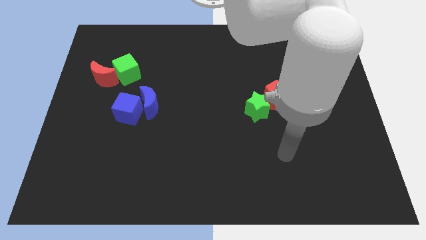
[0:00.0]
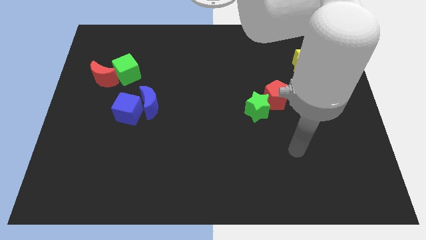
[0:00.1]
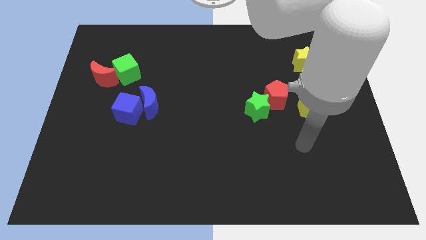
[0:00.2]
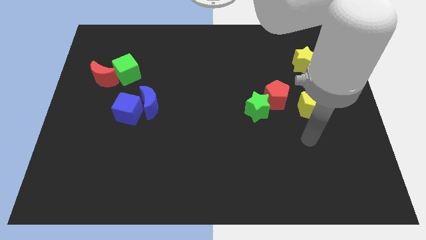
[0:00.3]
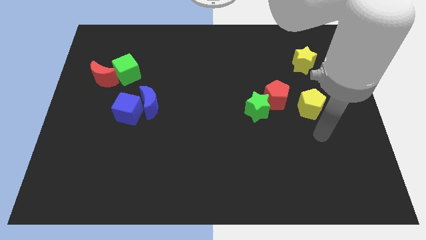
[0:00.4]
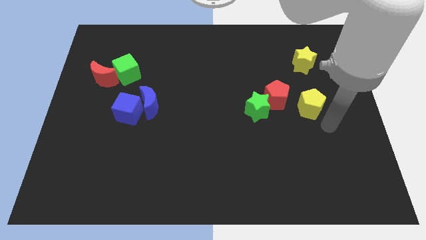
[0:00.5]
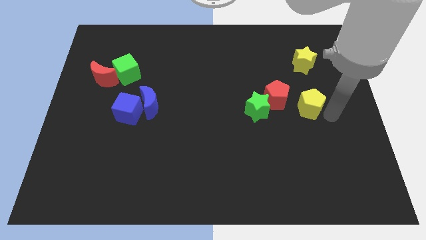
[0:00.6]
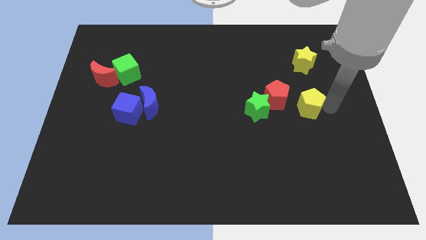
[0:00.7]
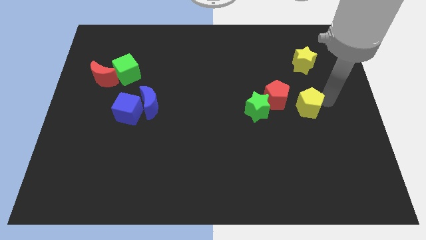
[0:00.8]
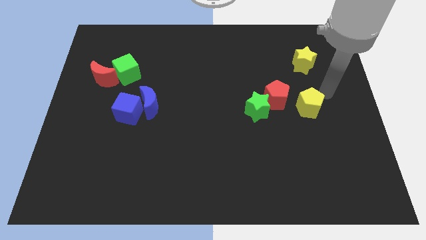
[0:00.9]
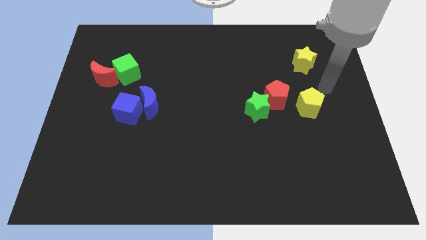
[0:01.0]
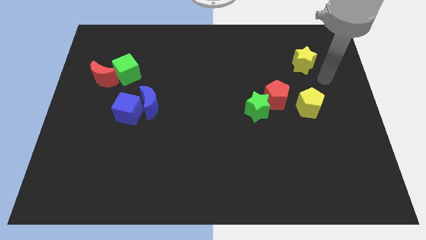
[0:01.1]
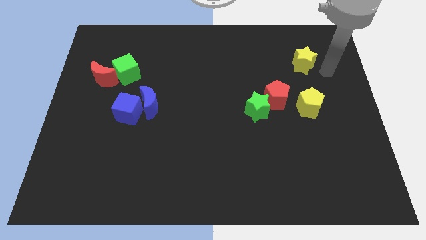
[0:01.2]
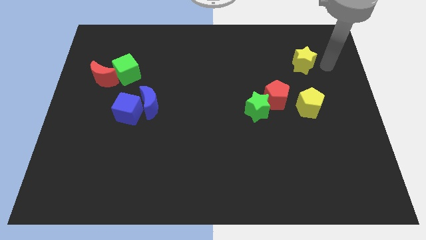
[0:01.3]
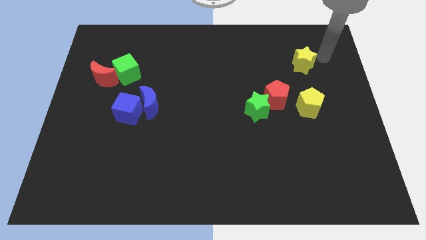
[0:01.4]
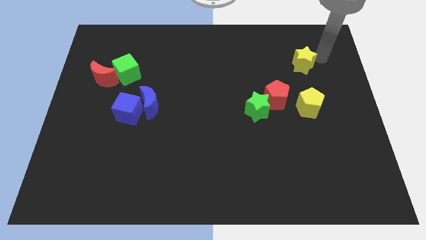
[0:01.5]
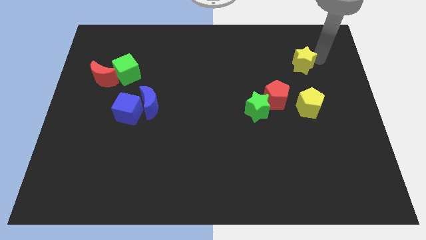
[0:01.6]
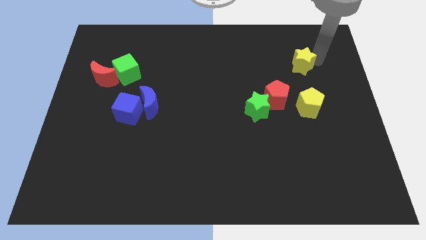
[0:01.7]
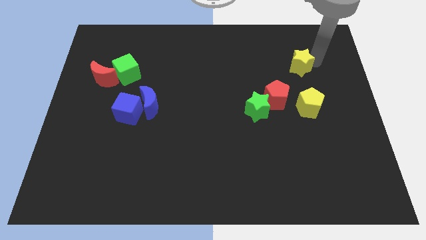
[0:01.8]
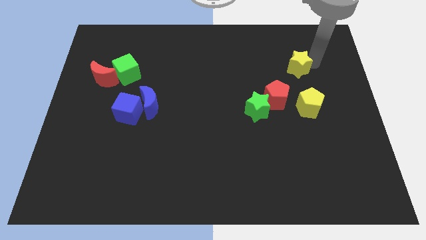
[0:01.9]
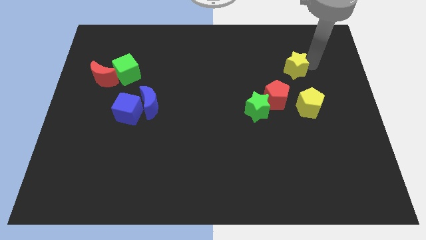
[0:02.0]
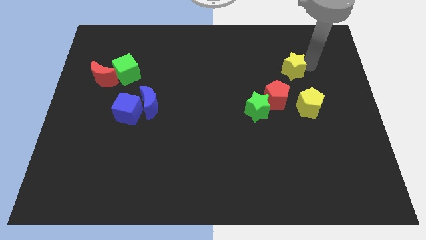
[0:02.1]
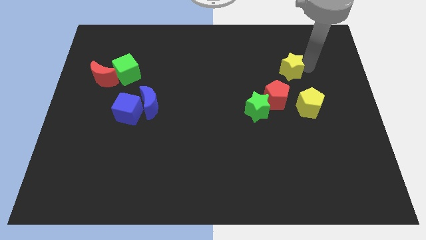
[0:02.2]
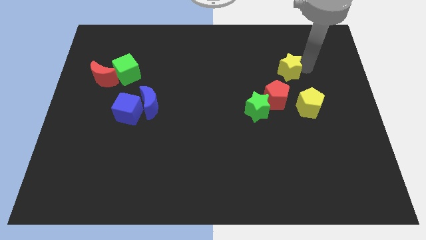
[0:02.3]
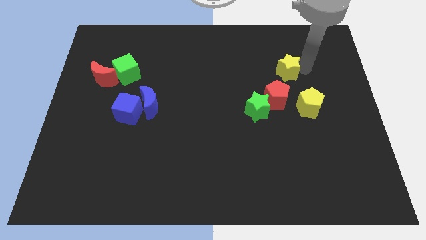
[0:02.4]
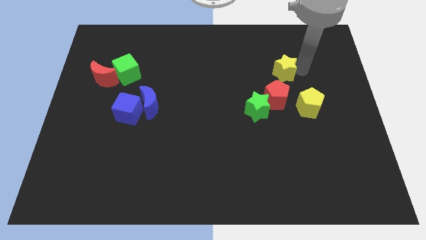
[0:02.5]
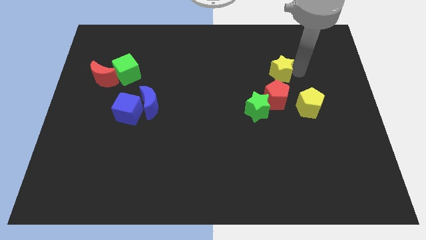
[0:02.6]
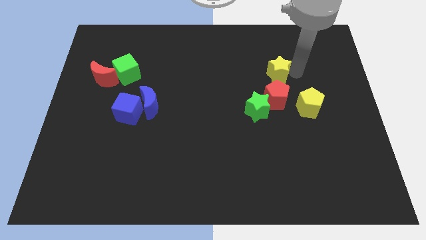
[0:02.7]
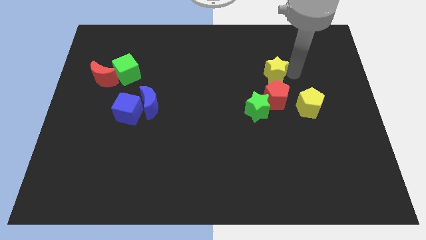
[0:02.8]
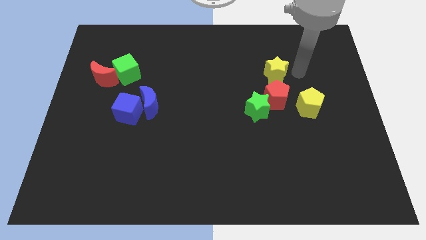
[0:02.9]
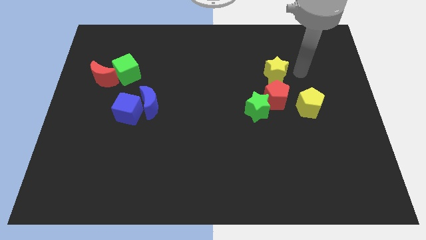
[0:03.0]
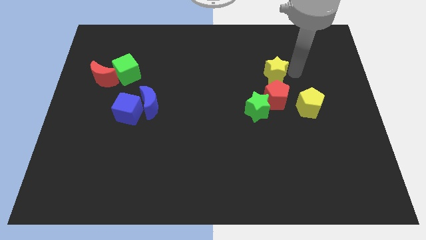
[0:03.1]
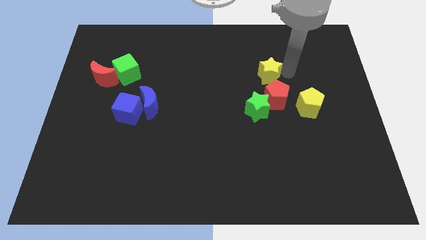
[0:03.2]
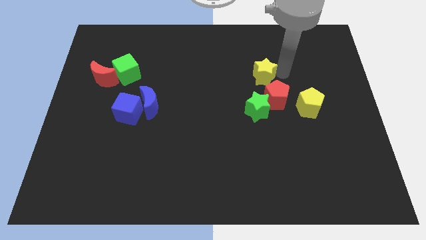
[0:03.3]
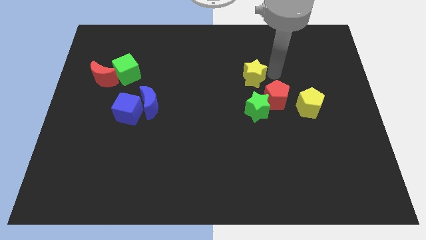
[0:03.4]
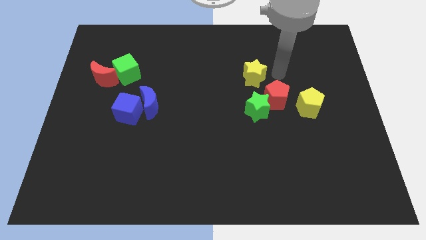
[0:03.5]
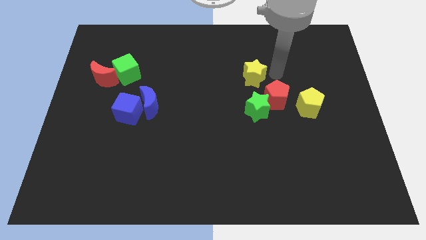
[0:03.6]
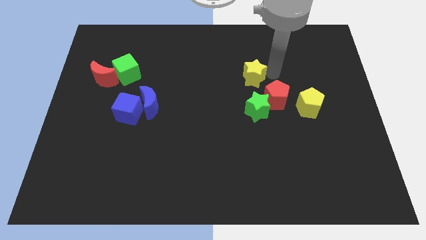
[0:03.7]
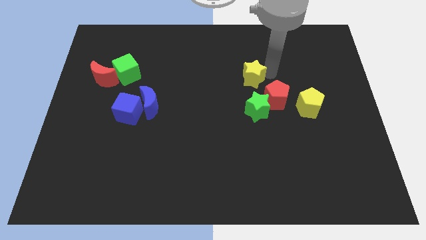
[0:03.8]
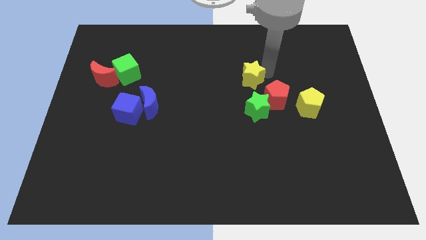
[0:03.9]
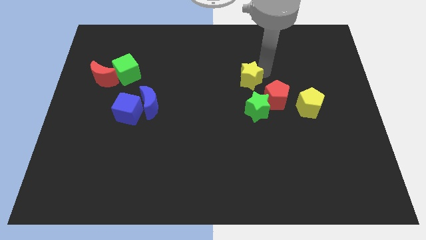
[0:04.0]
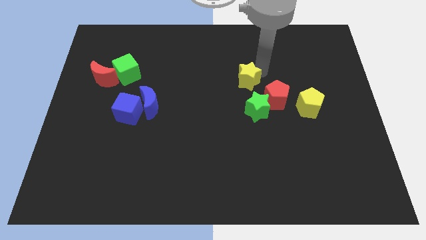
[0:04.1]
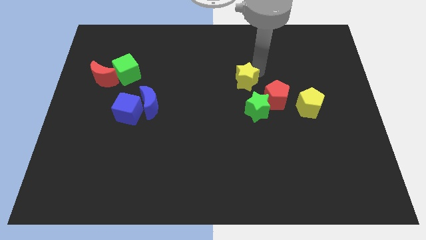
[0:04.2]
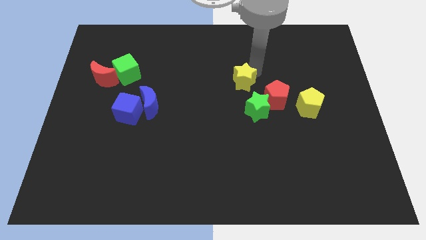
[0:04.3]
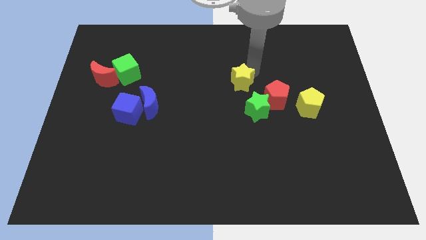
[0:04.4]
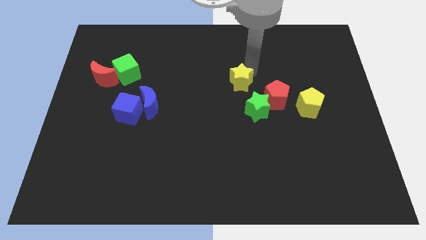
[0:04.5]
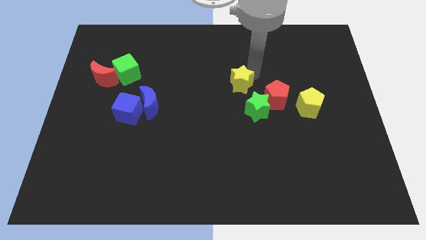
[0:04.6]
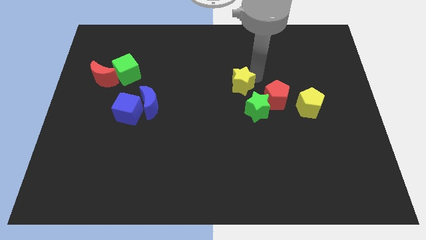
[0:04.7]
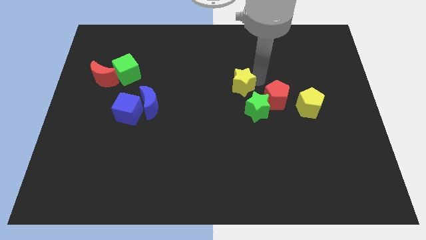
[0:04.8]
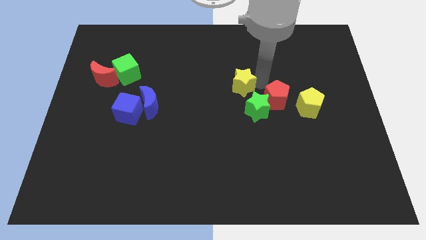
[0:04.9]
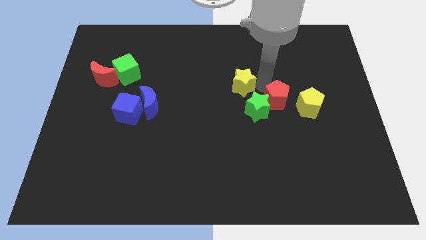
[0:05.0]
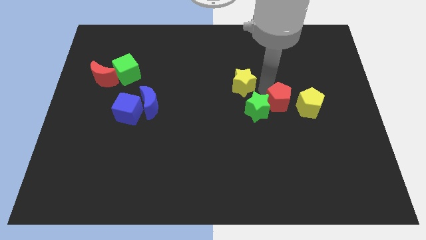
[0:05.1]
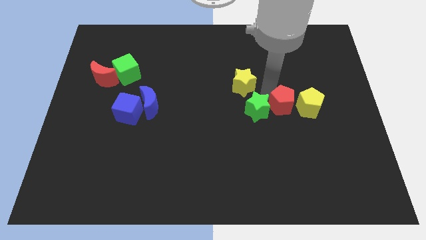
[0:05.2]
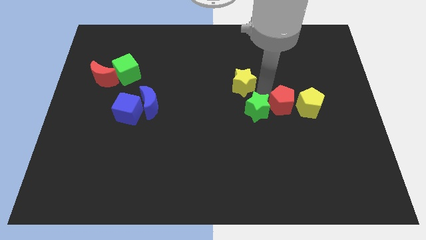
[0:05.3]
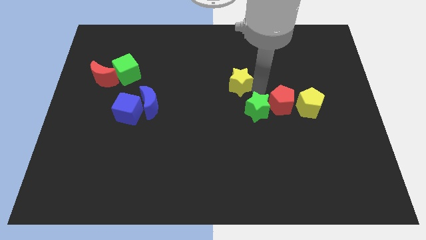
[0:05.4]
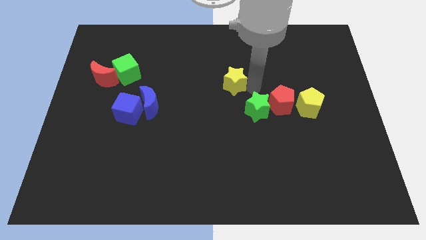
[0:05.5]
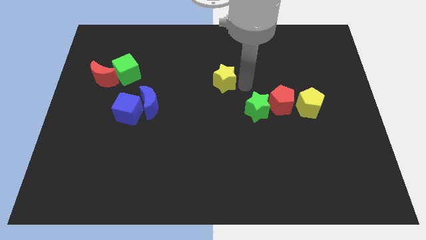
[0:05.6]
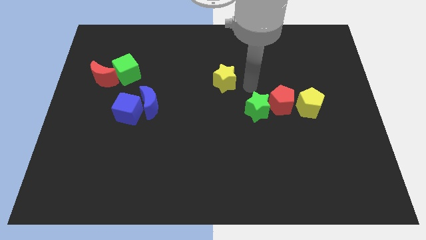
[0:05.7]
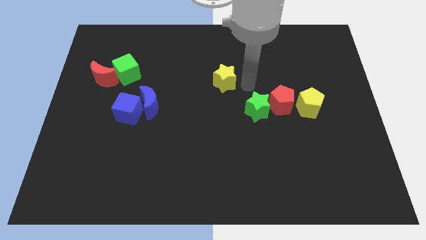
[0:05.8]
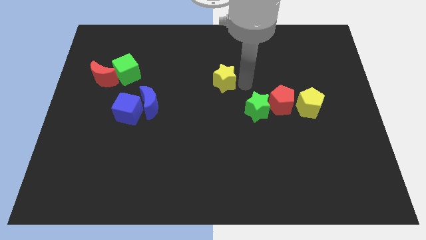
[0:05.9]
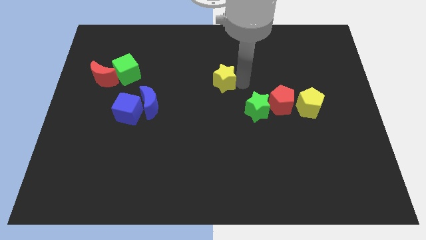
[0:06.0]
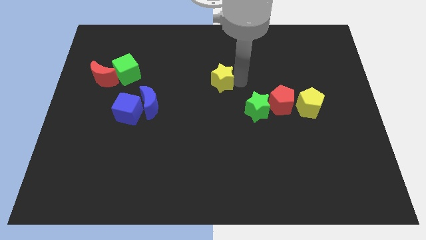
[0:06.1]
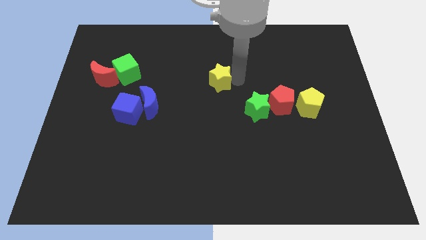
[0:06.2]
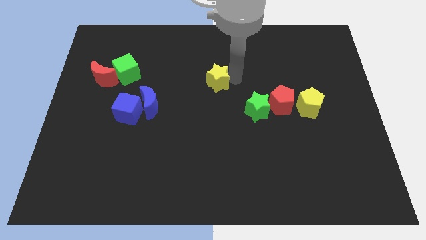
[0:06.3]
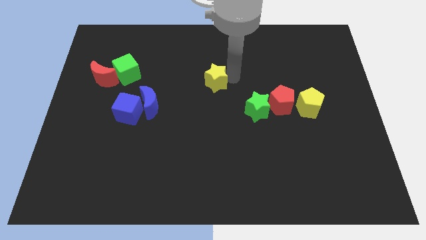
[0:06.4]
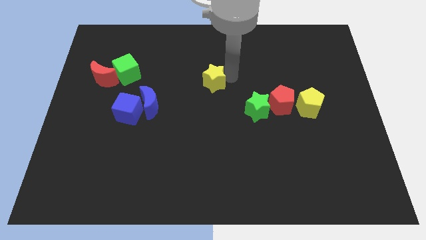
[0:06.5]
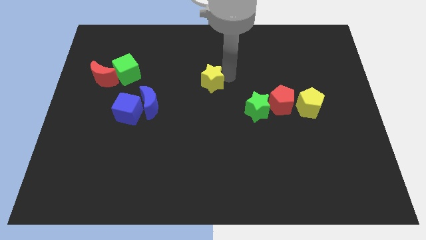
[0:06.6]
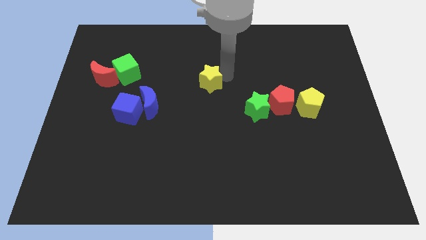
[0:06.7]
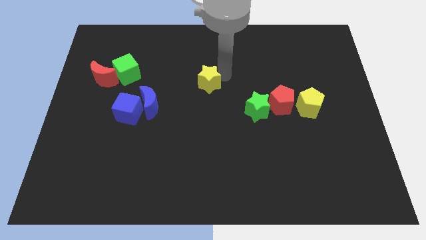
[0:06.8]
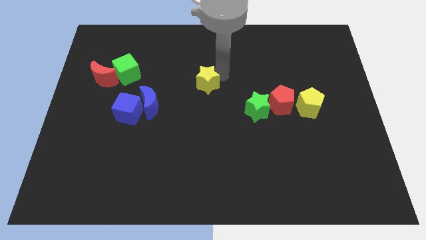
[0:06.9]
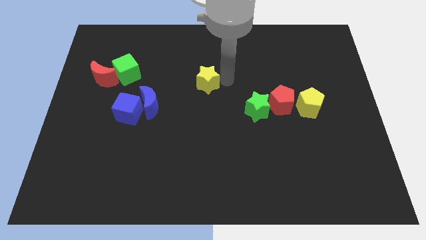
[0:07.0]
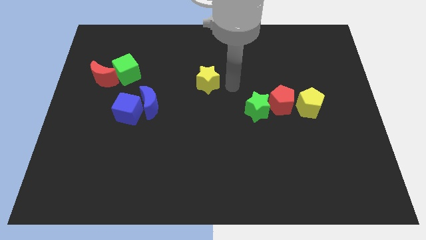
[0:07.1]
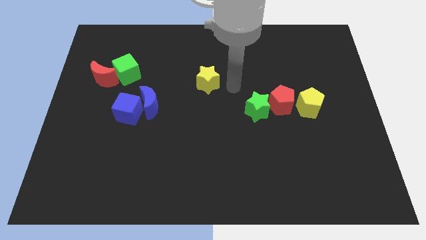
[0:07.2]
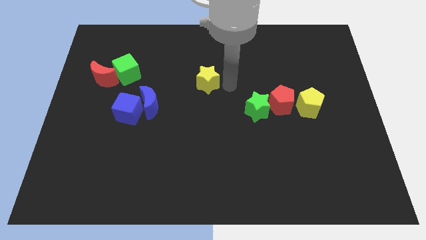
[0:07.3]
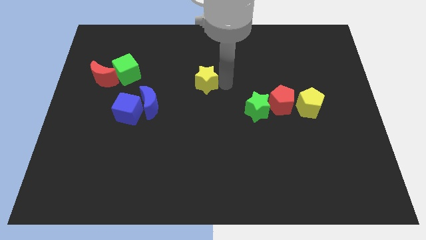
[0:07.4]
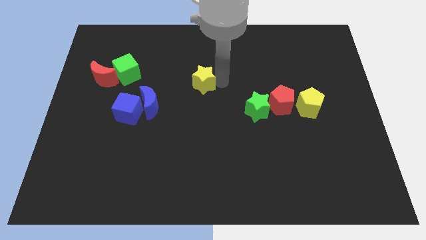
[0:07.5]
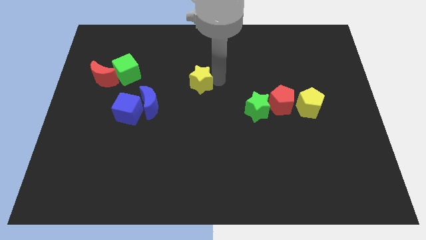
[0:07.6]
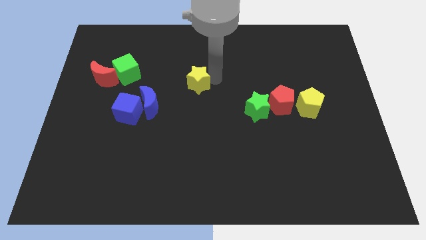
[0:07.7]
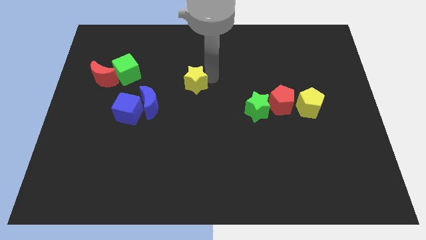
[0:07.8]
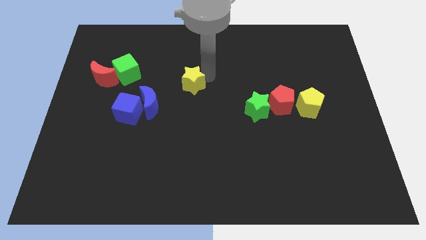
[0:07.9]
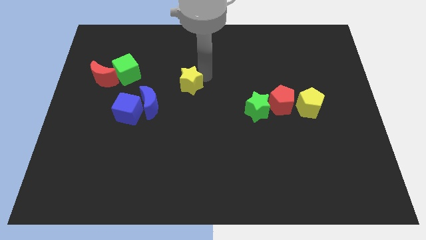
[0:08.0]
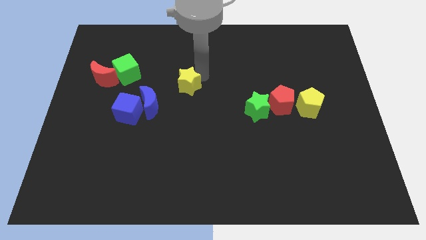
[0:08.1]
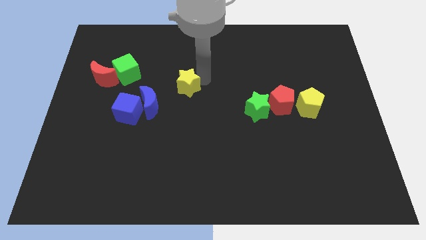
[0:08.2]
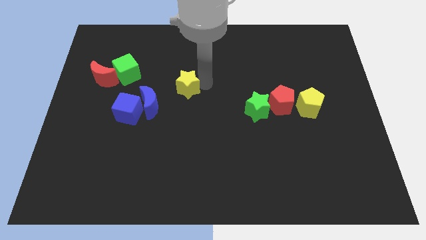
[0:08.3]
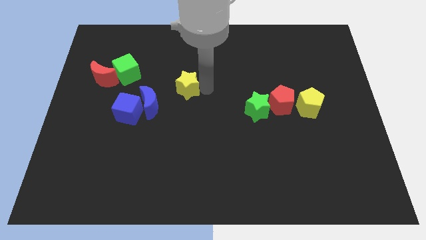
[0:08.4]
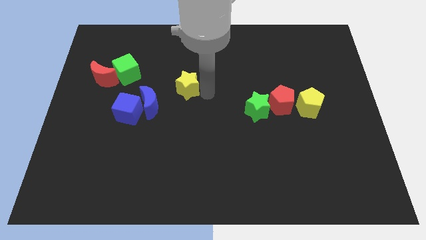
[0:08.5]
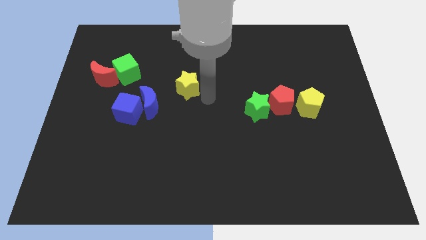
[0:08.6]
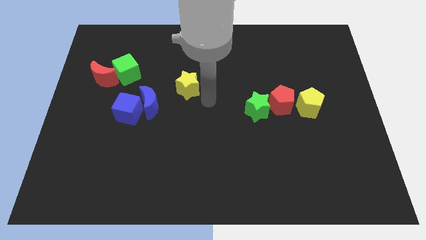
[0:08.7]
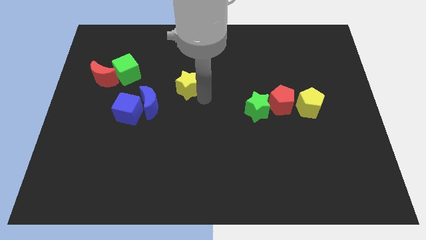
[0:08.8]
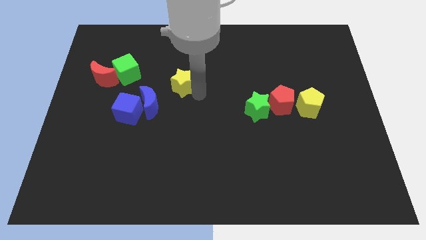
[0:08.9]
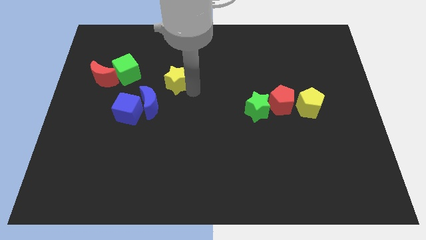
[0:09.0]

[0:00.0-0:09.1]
push the yellow star to the right side of the green cube
